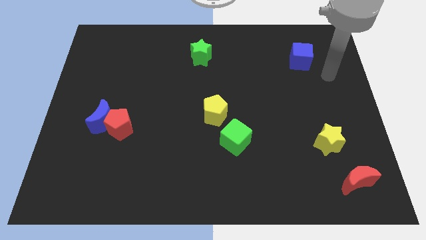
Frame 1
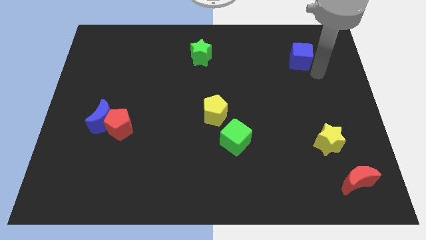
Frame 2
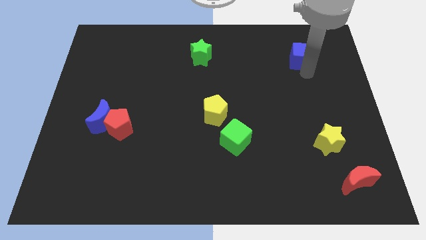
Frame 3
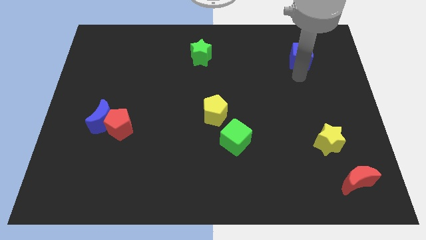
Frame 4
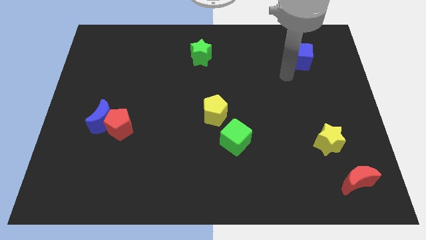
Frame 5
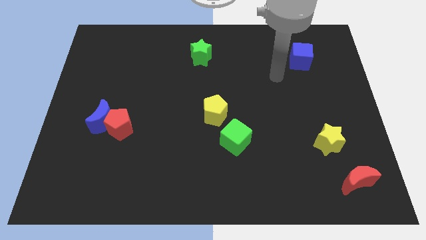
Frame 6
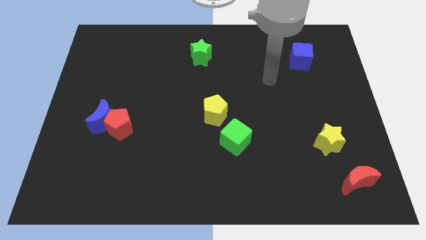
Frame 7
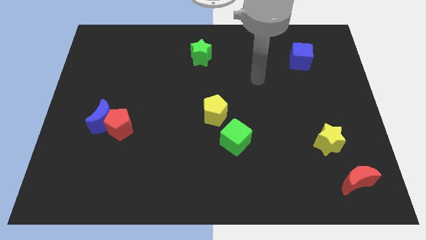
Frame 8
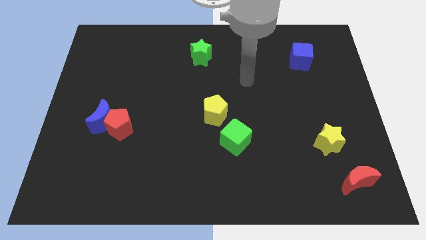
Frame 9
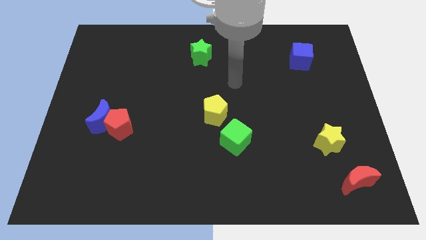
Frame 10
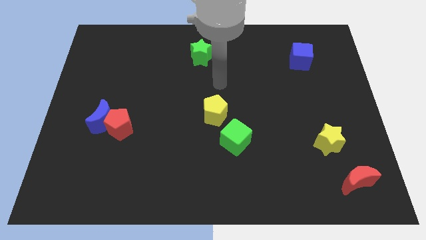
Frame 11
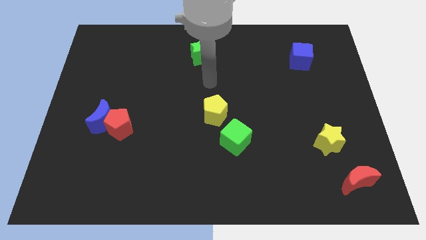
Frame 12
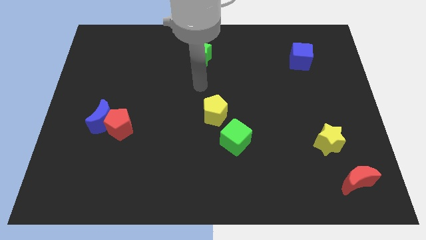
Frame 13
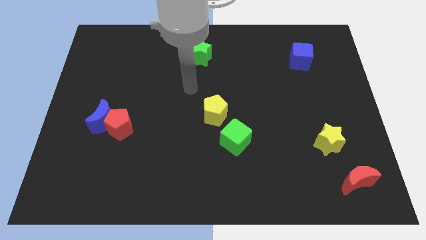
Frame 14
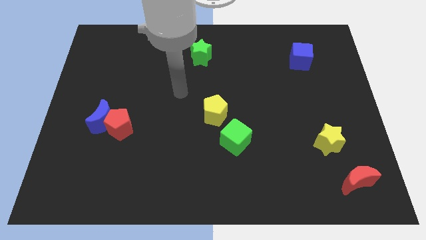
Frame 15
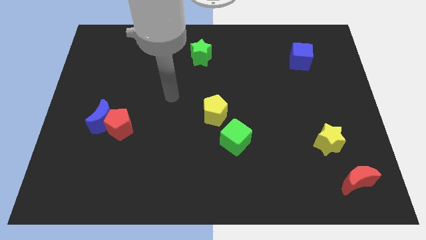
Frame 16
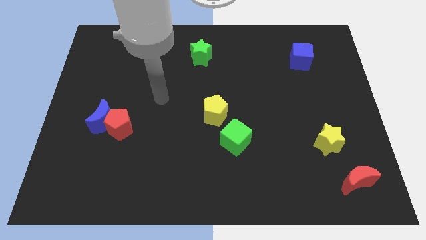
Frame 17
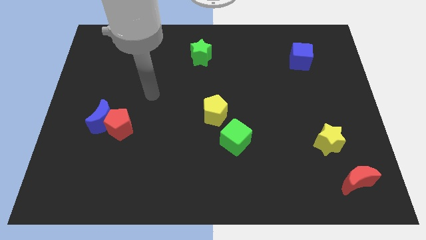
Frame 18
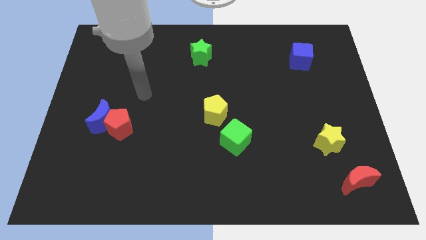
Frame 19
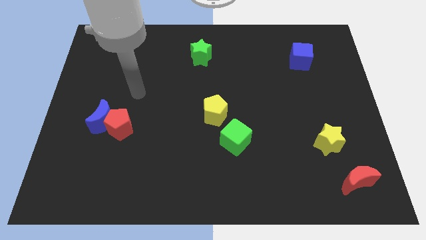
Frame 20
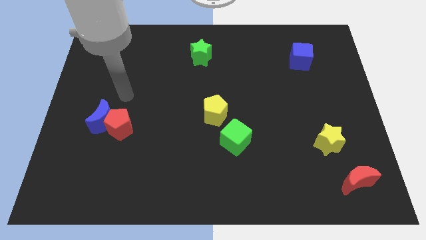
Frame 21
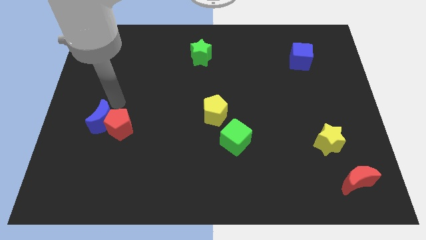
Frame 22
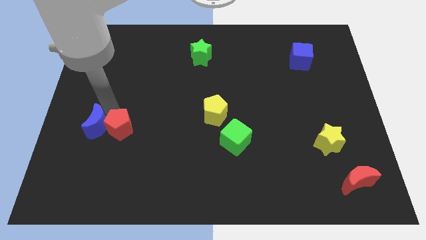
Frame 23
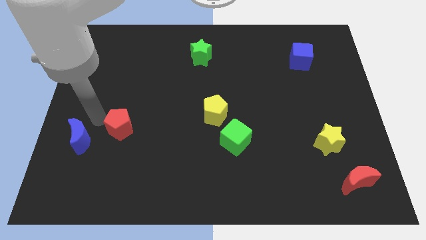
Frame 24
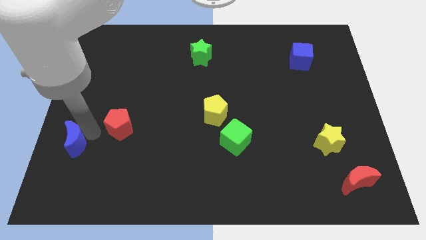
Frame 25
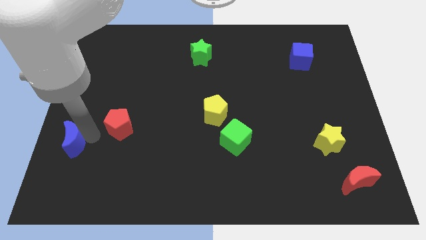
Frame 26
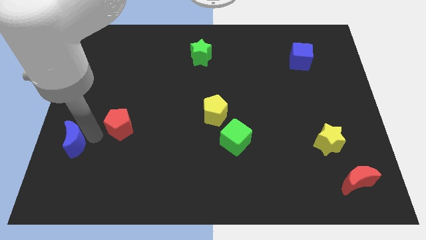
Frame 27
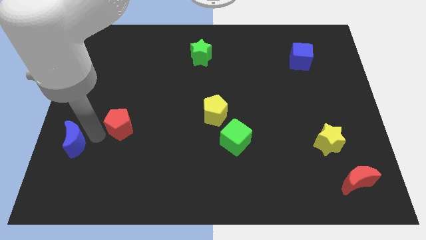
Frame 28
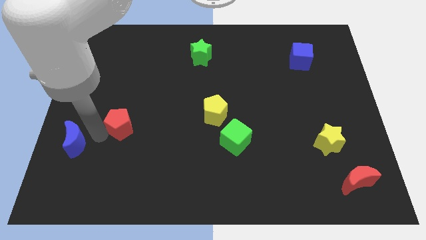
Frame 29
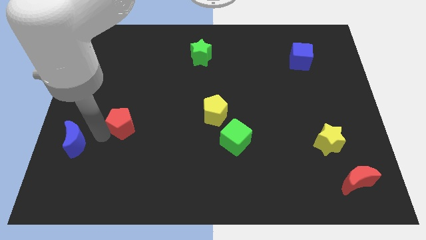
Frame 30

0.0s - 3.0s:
move the red pentagon away from the blue moon

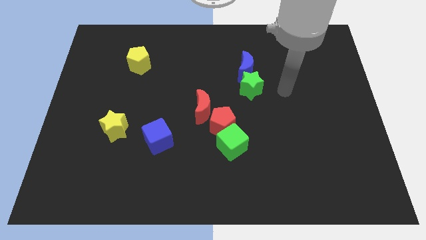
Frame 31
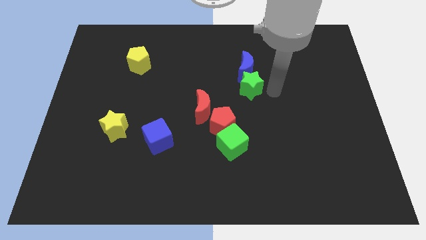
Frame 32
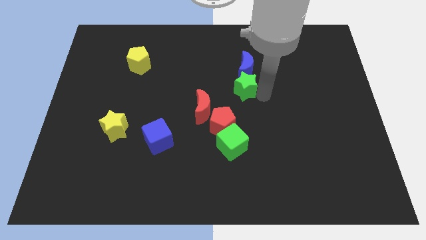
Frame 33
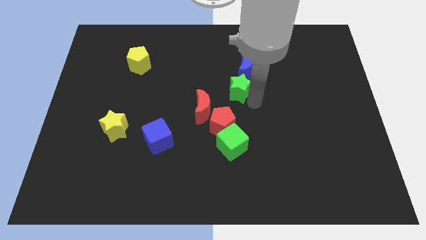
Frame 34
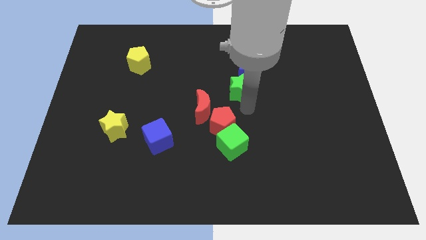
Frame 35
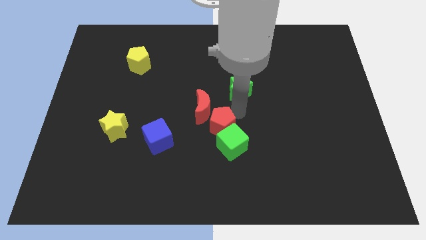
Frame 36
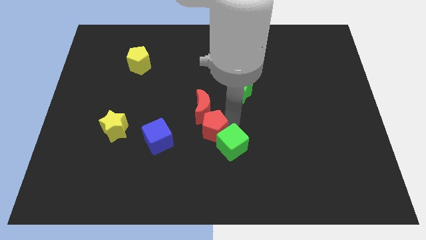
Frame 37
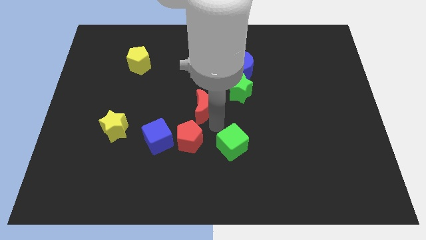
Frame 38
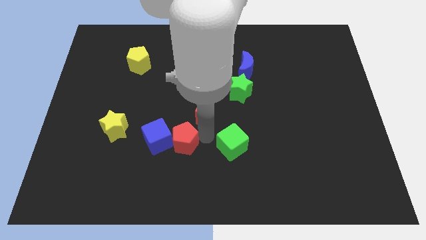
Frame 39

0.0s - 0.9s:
pull the green cube apart from the red pentagon

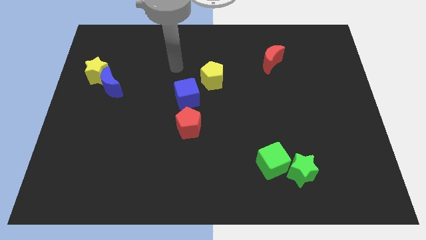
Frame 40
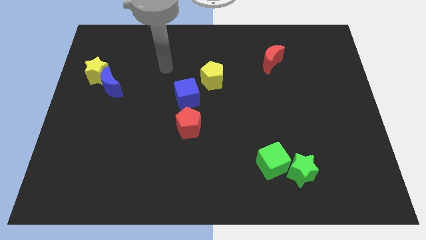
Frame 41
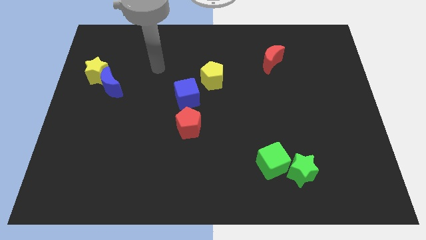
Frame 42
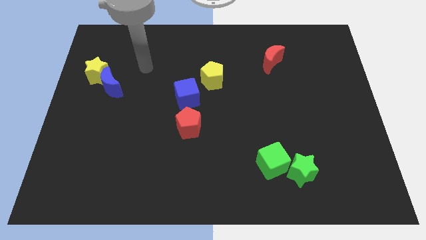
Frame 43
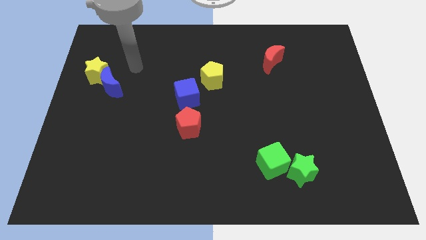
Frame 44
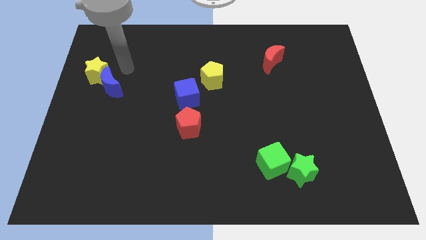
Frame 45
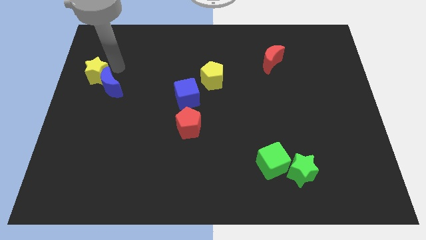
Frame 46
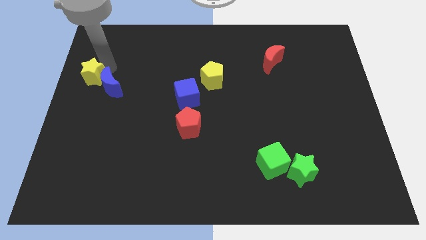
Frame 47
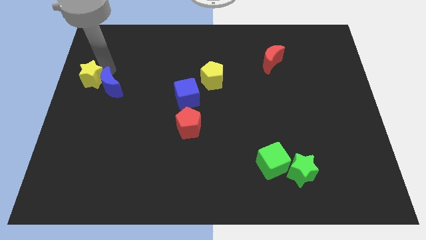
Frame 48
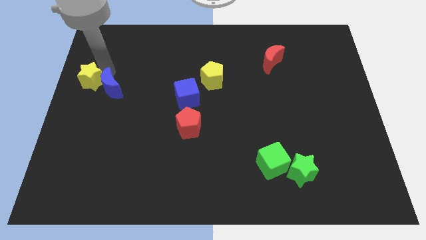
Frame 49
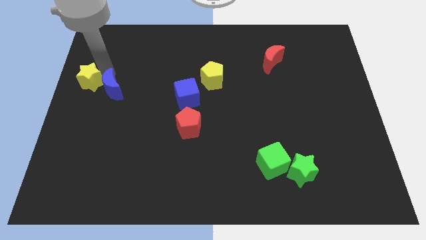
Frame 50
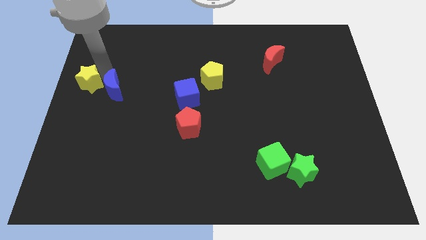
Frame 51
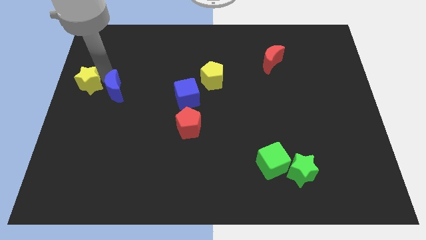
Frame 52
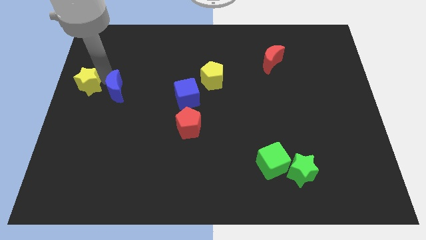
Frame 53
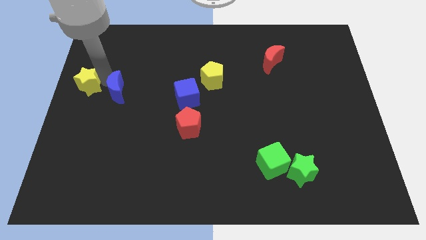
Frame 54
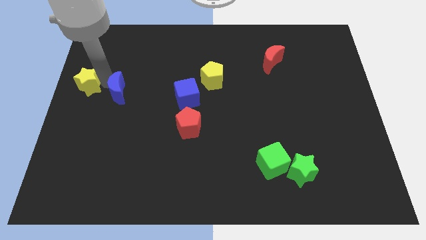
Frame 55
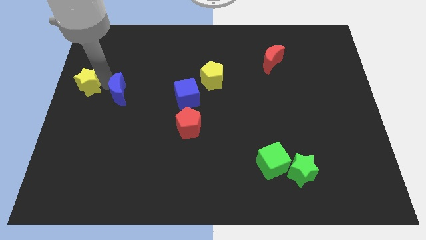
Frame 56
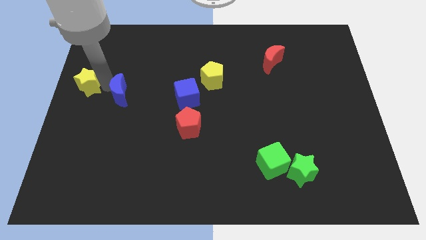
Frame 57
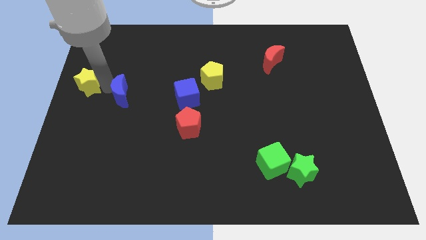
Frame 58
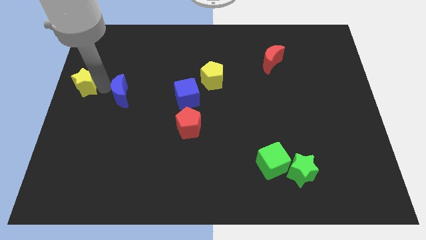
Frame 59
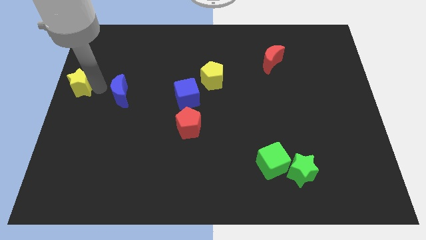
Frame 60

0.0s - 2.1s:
separate the blue moon from the yellow star

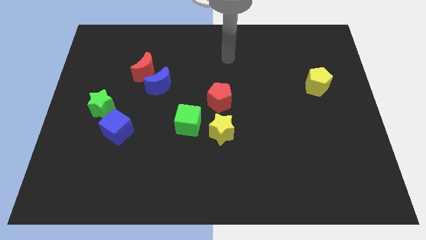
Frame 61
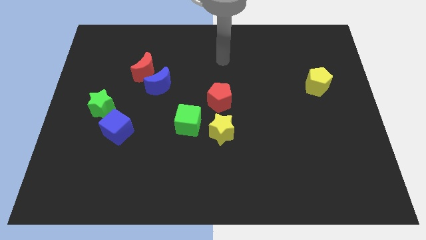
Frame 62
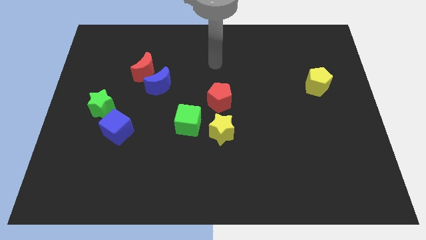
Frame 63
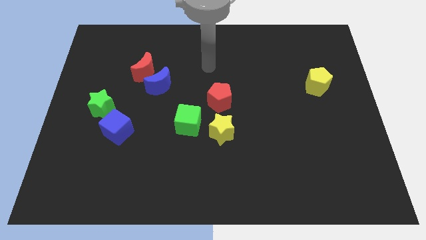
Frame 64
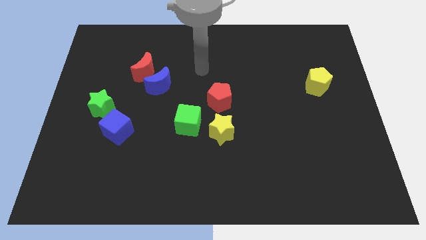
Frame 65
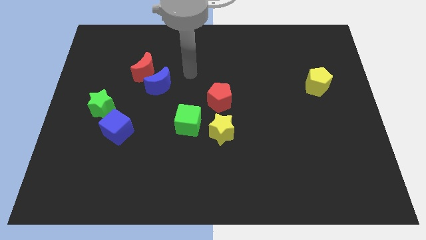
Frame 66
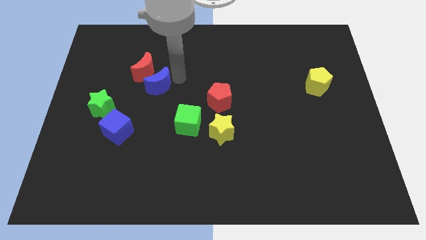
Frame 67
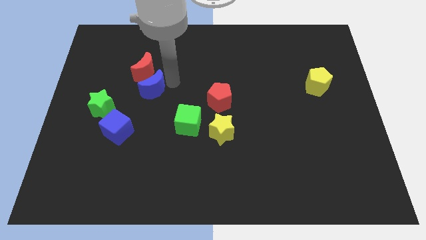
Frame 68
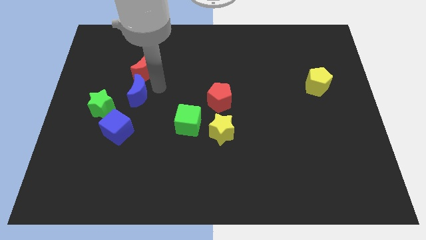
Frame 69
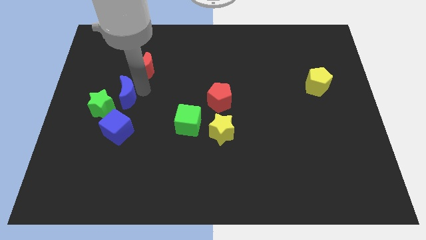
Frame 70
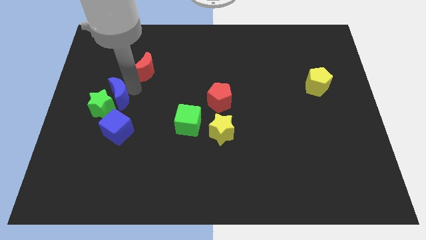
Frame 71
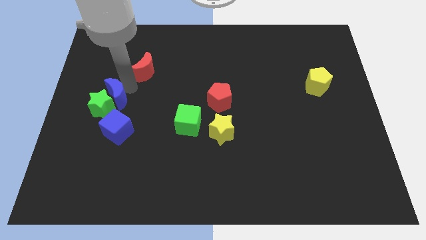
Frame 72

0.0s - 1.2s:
separate the red moon from the blue moon

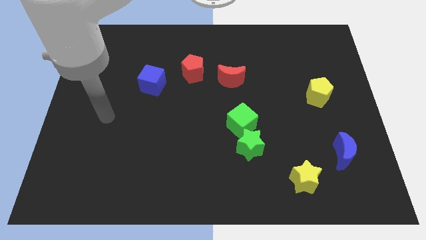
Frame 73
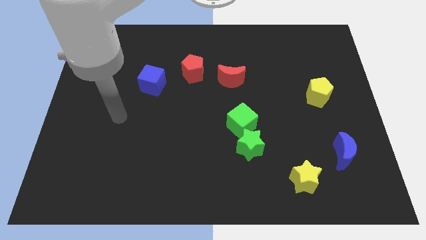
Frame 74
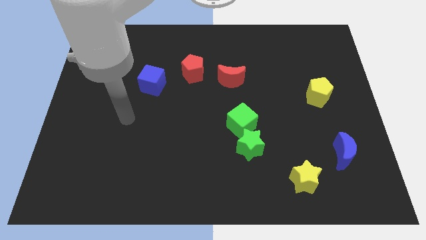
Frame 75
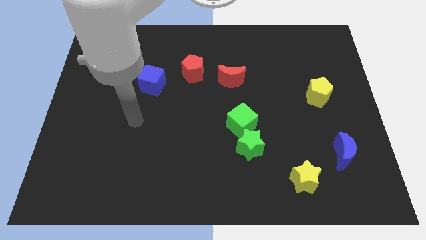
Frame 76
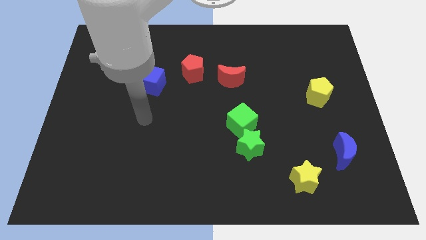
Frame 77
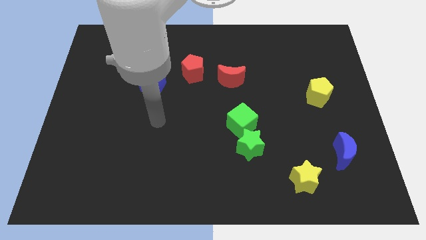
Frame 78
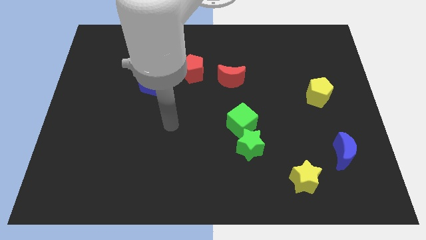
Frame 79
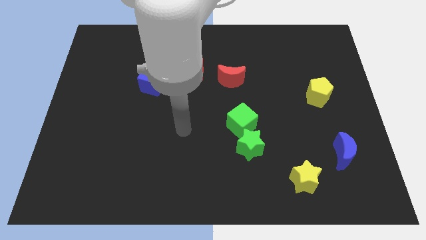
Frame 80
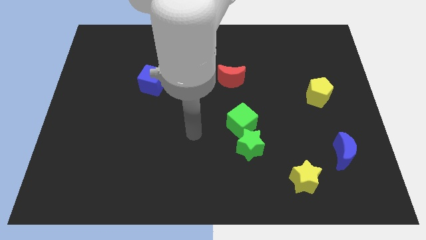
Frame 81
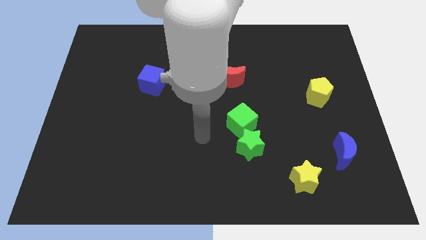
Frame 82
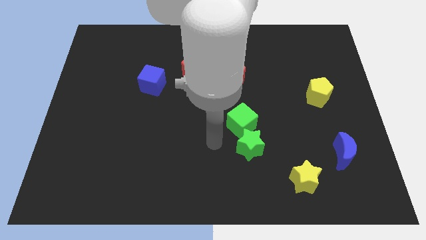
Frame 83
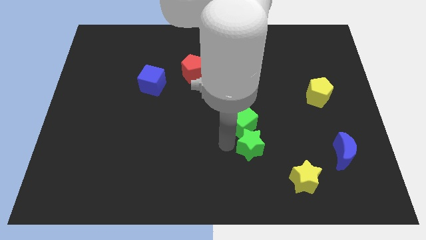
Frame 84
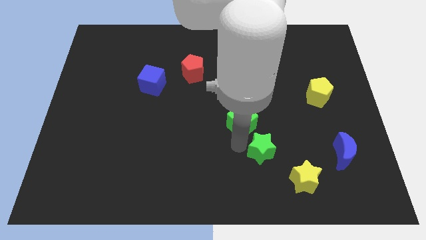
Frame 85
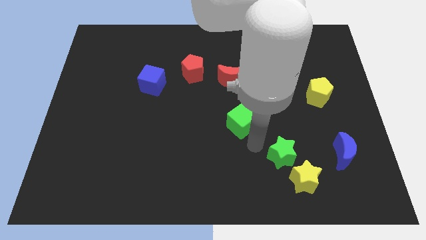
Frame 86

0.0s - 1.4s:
pull the green cube apart from the green star

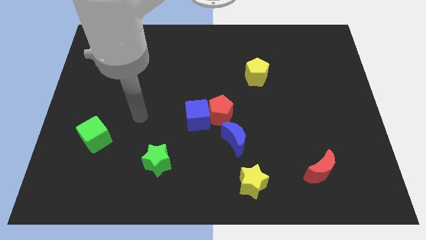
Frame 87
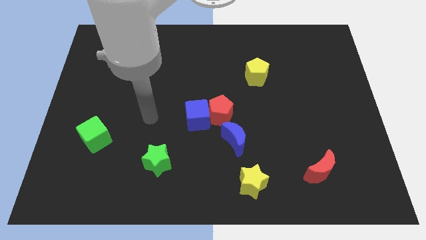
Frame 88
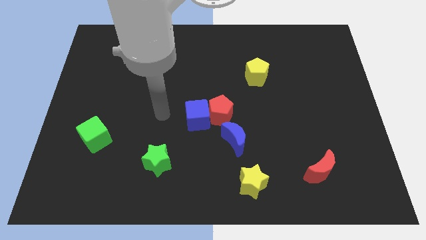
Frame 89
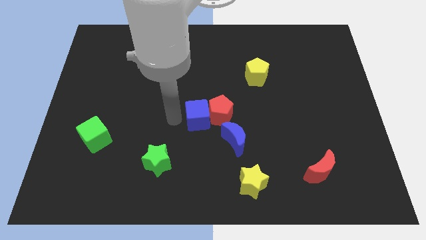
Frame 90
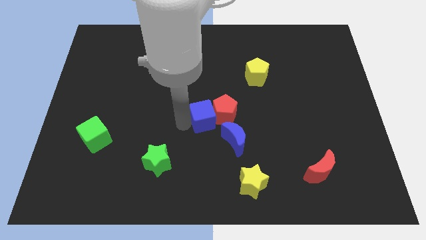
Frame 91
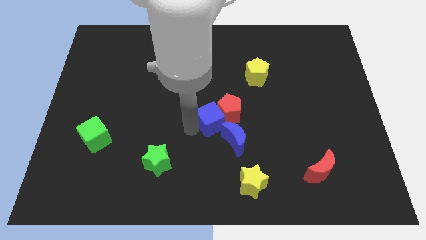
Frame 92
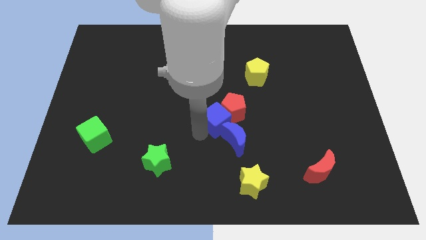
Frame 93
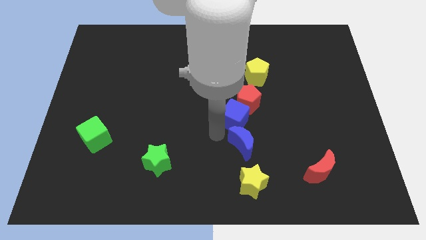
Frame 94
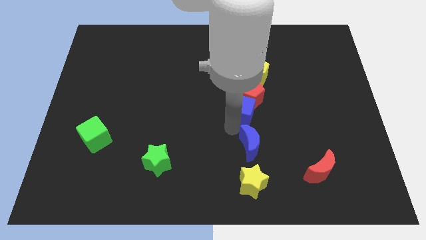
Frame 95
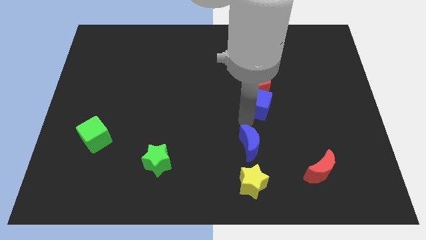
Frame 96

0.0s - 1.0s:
separate the red pentagon from the blue cube and blue moon
